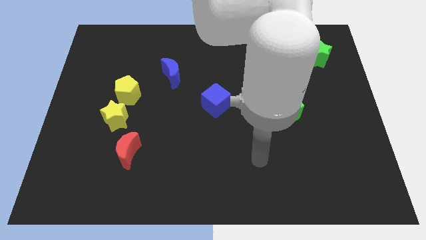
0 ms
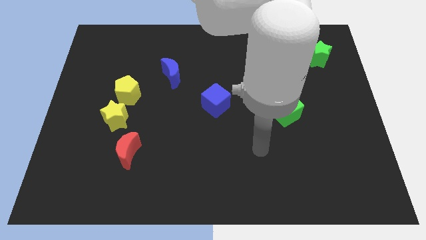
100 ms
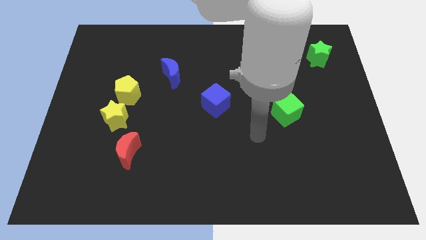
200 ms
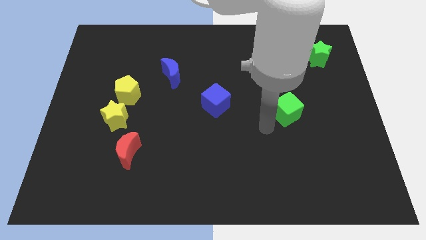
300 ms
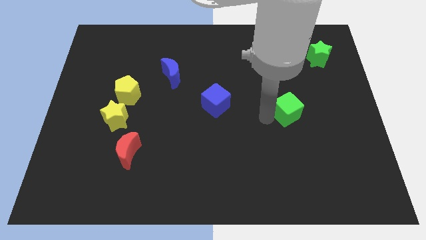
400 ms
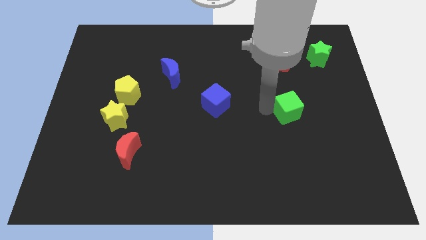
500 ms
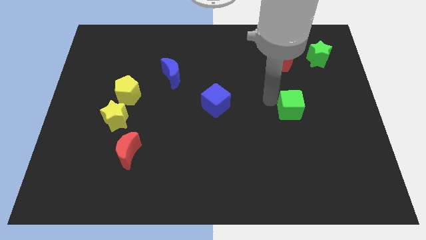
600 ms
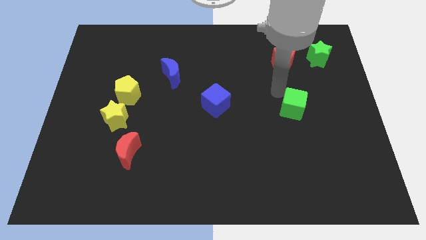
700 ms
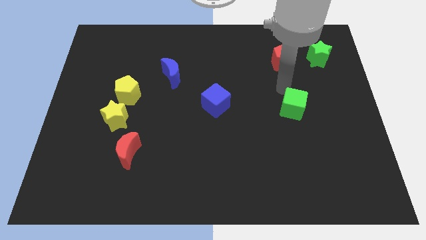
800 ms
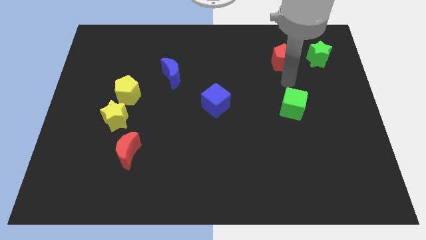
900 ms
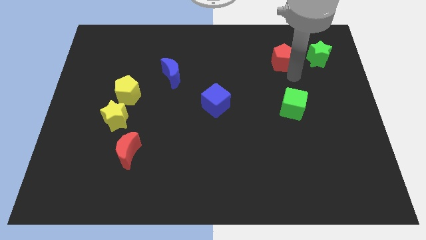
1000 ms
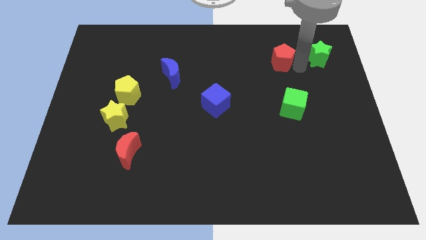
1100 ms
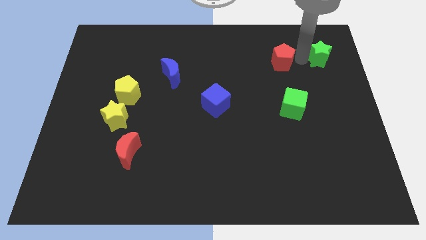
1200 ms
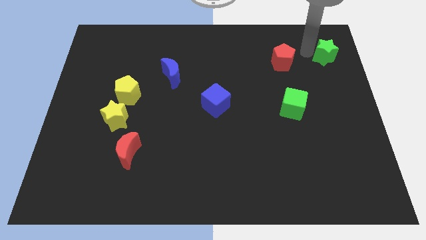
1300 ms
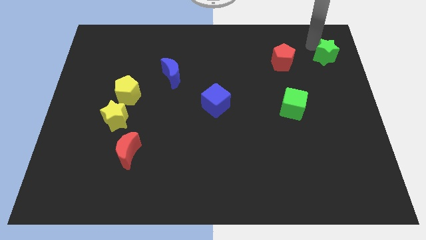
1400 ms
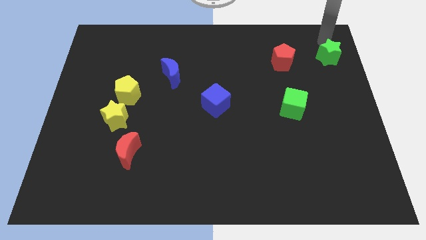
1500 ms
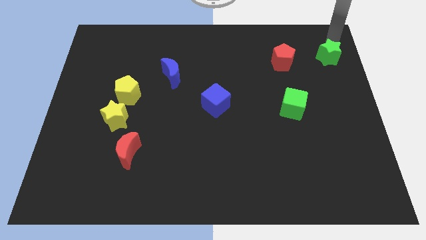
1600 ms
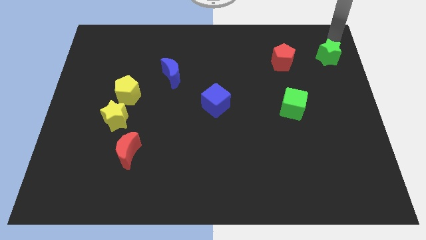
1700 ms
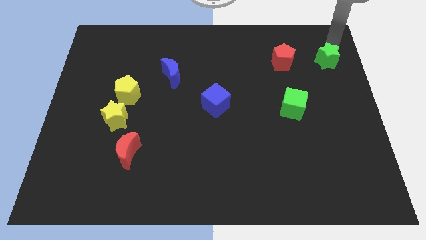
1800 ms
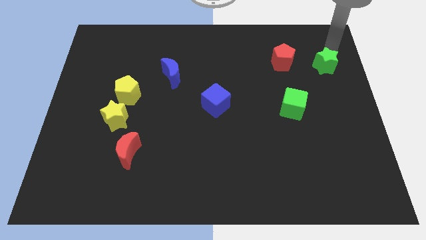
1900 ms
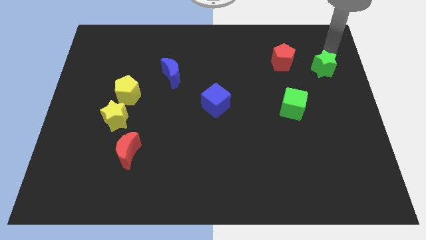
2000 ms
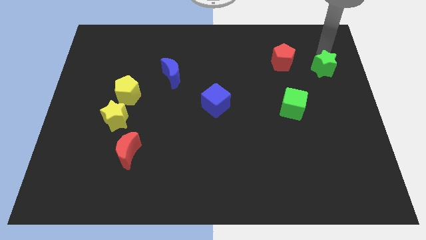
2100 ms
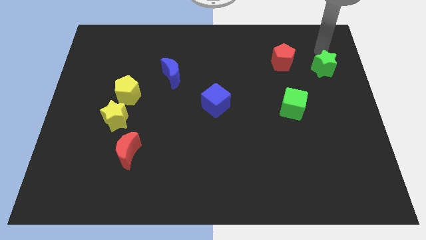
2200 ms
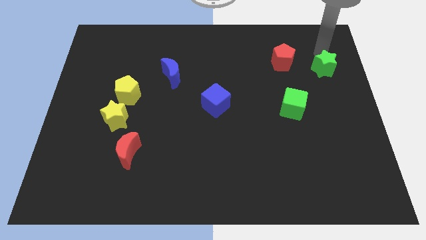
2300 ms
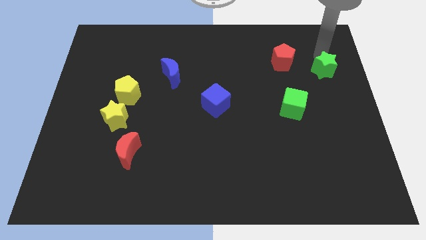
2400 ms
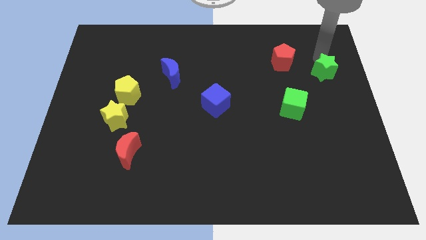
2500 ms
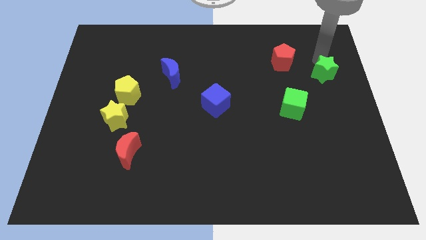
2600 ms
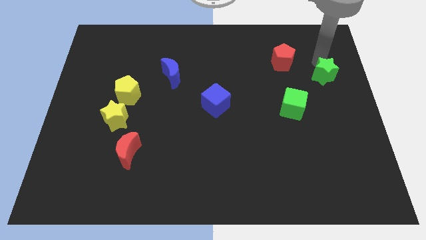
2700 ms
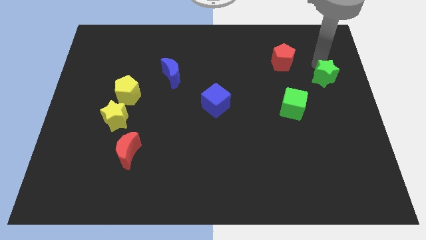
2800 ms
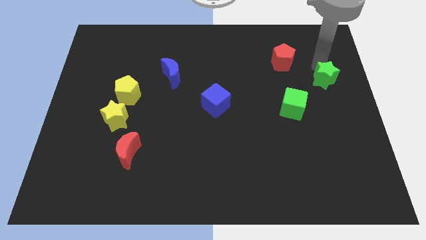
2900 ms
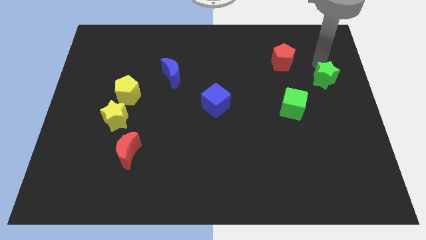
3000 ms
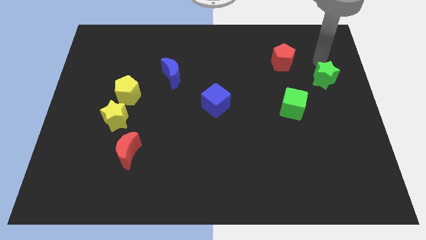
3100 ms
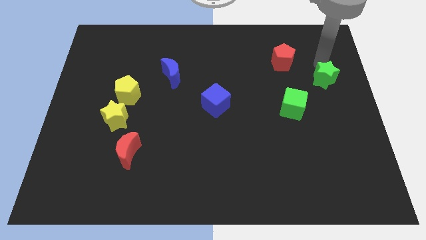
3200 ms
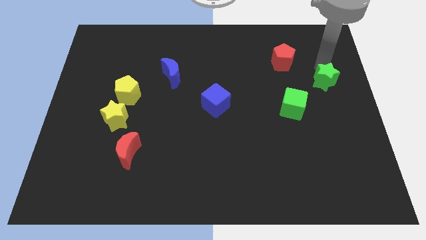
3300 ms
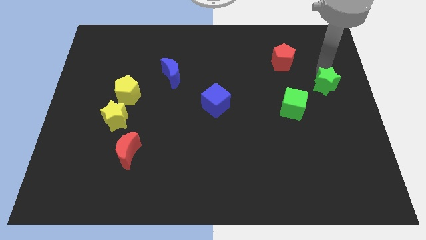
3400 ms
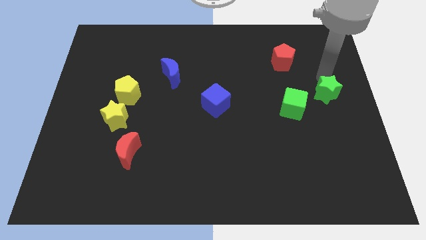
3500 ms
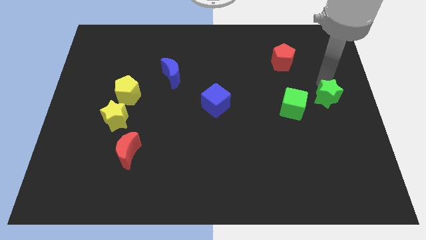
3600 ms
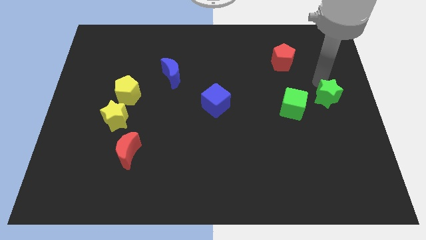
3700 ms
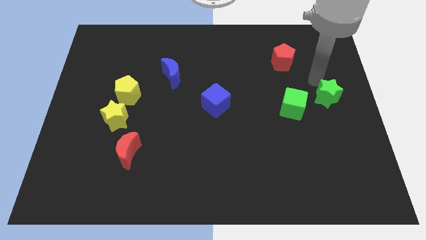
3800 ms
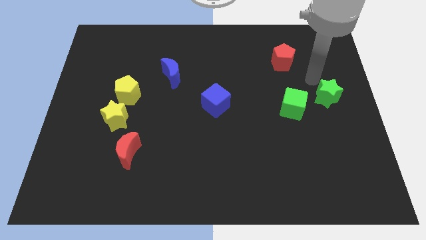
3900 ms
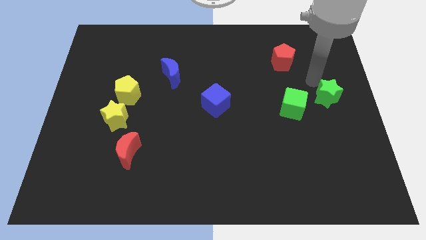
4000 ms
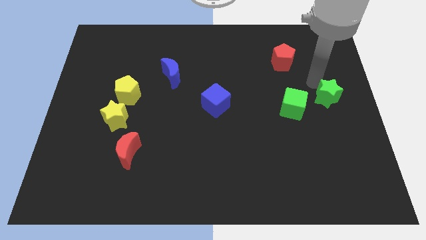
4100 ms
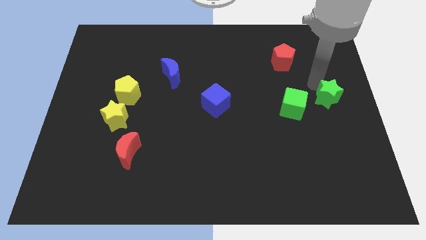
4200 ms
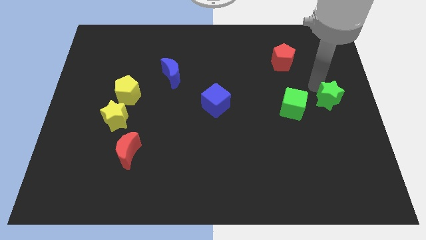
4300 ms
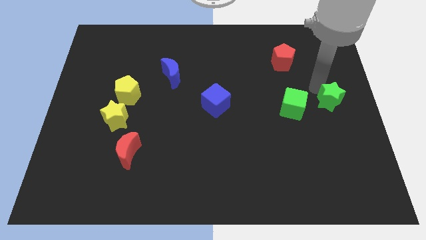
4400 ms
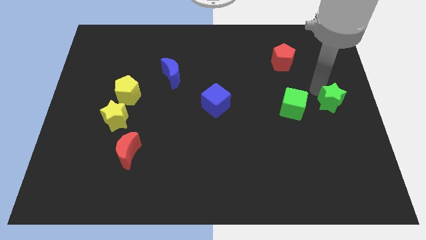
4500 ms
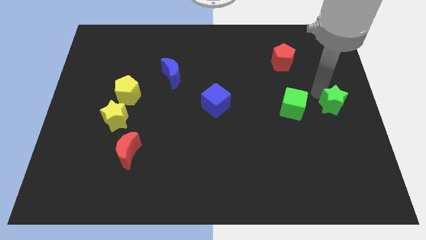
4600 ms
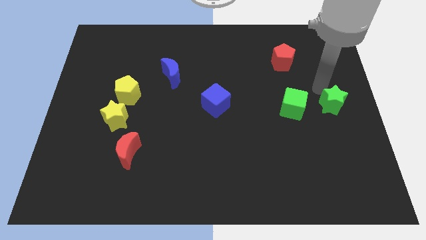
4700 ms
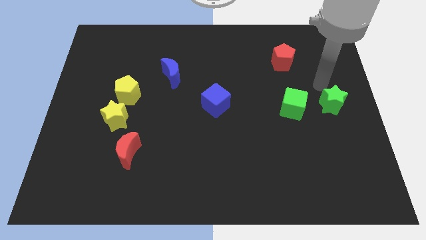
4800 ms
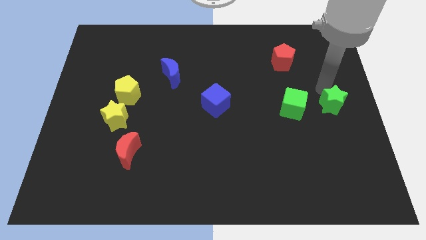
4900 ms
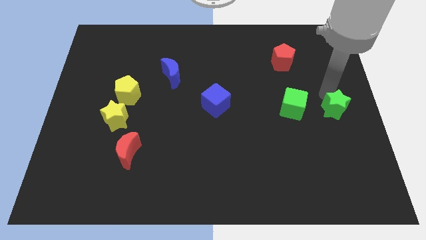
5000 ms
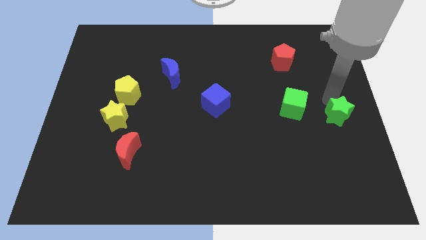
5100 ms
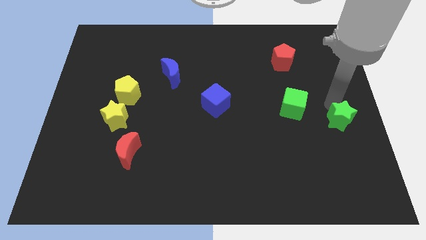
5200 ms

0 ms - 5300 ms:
push the green star downwards

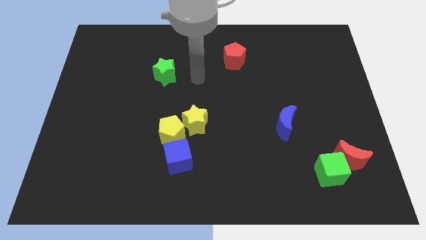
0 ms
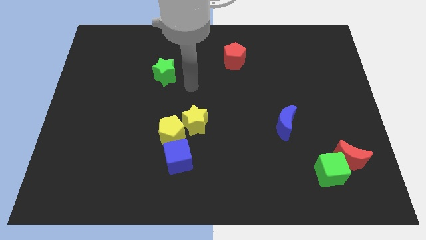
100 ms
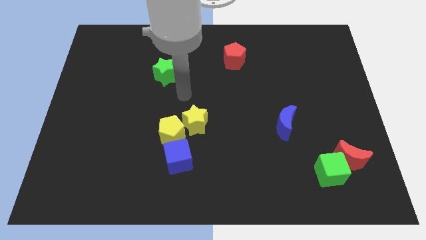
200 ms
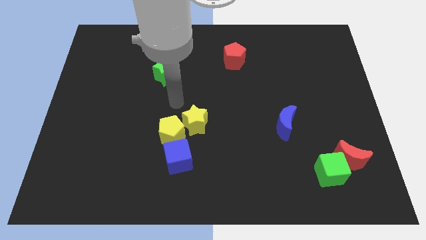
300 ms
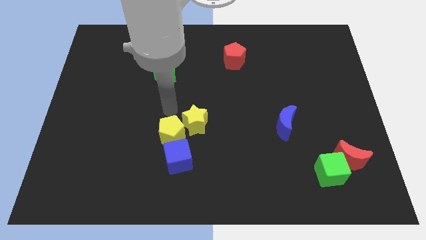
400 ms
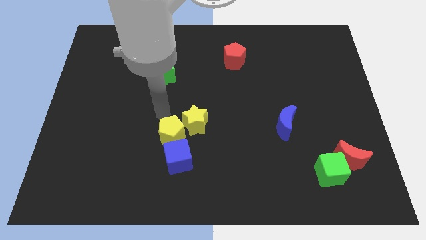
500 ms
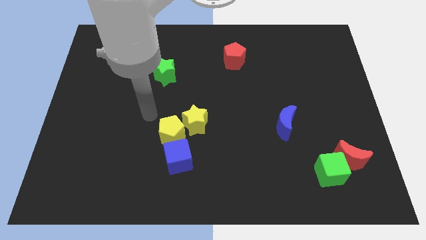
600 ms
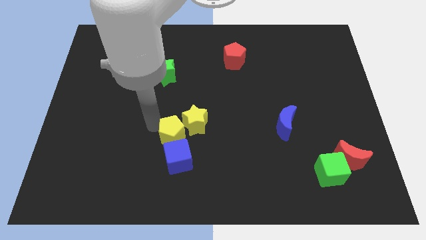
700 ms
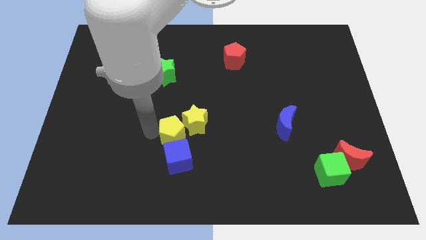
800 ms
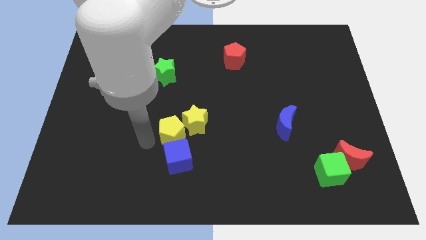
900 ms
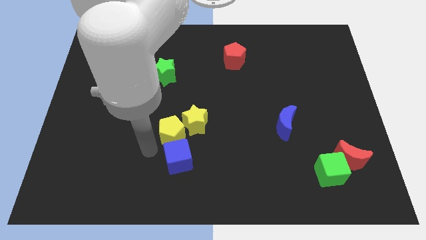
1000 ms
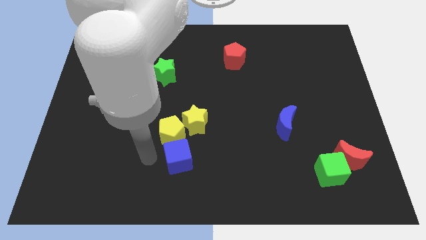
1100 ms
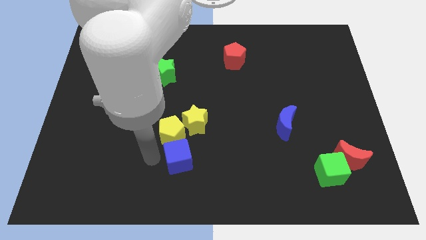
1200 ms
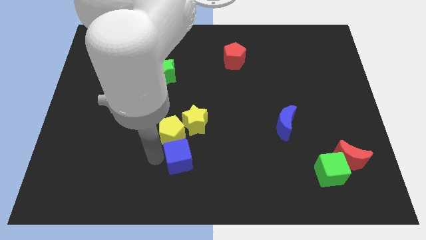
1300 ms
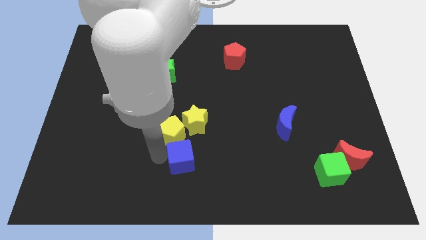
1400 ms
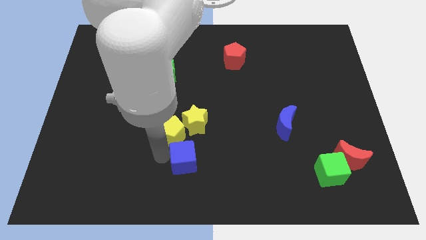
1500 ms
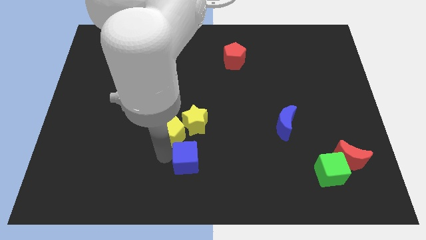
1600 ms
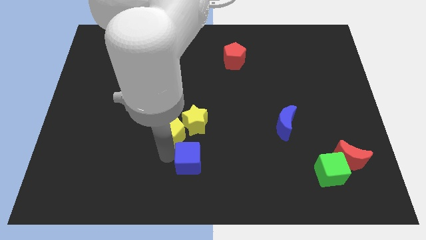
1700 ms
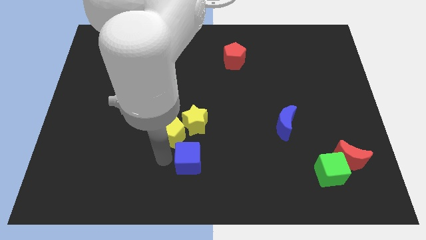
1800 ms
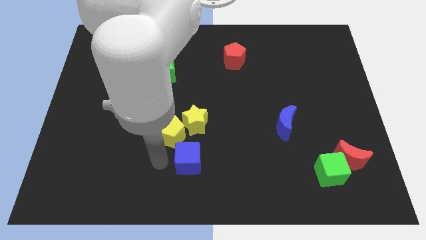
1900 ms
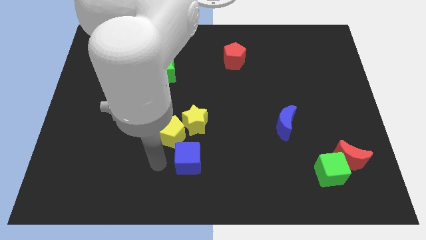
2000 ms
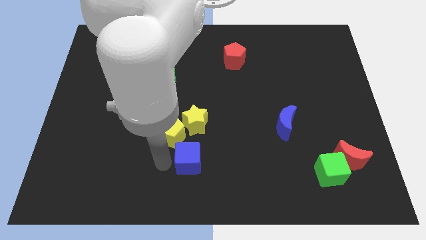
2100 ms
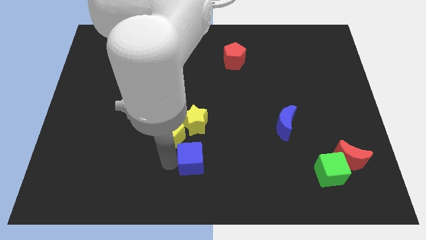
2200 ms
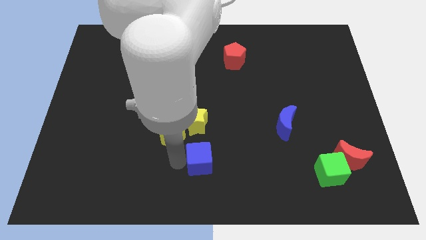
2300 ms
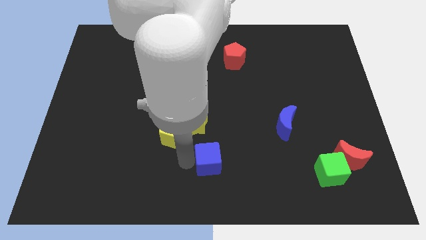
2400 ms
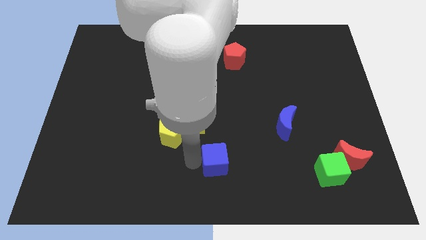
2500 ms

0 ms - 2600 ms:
move the blue cube right a bit

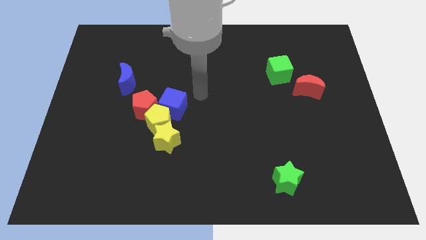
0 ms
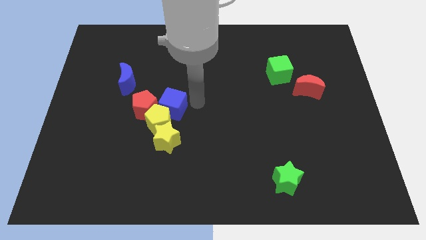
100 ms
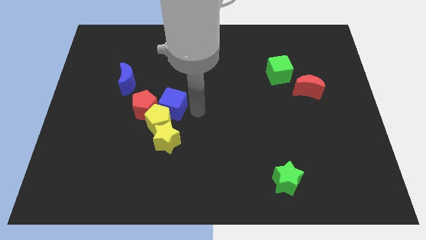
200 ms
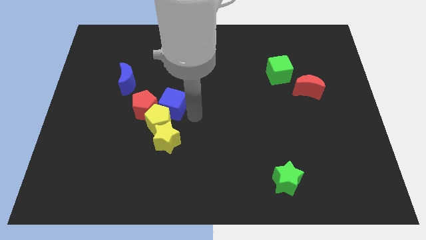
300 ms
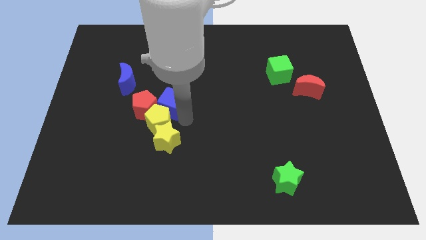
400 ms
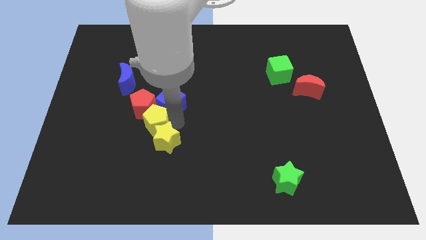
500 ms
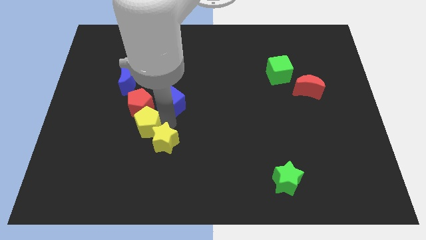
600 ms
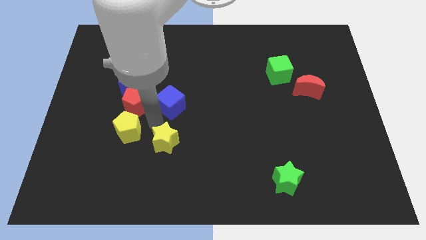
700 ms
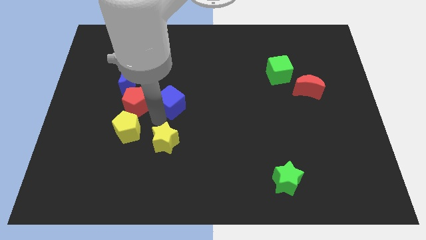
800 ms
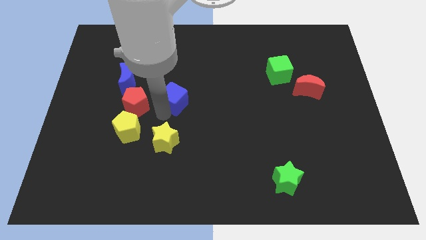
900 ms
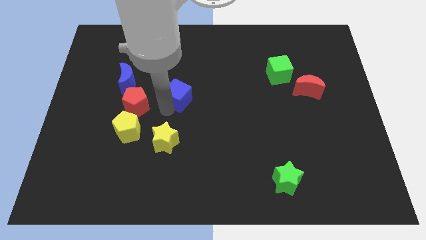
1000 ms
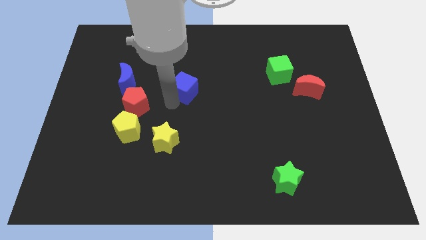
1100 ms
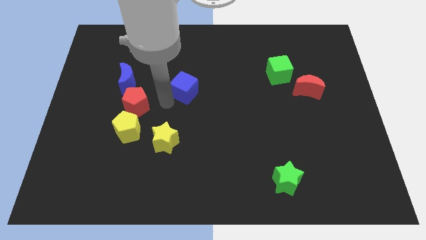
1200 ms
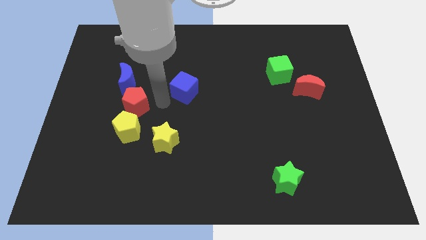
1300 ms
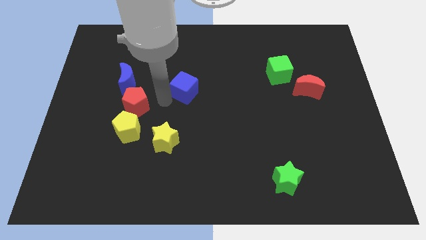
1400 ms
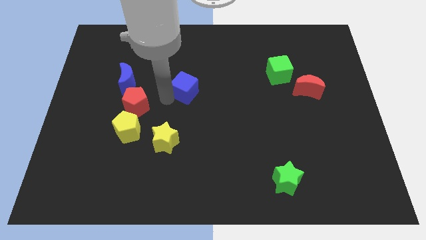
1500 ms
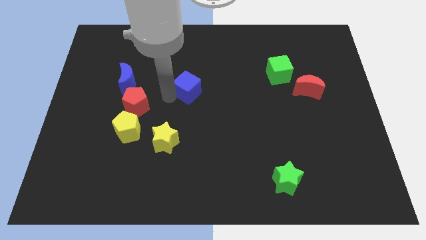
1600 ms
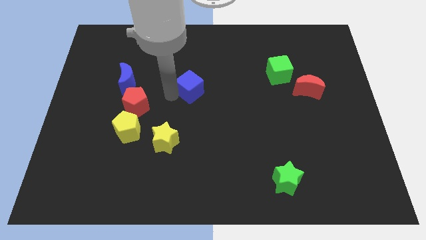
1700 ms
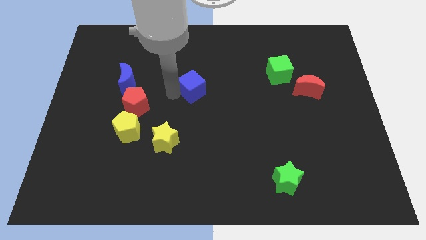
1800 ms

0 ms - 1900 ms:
move the blue cube a little bit upwards and right diagonally
